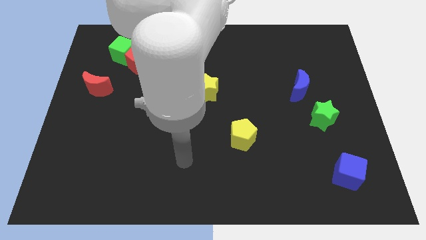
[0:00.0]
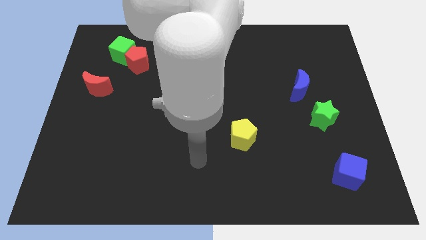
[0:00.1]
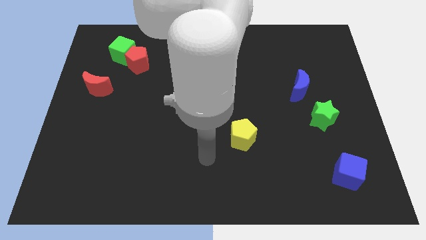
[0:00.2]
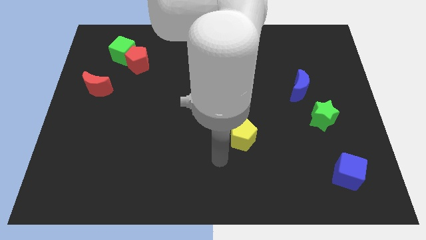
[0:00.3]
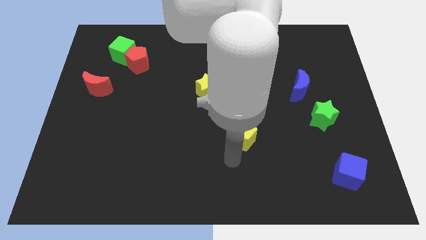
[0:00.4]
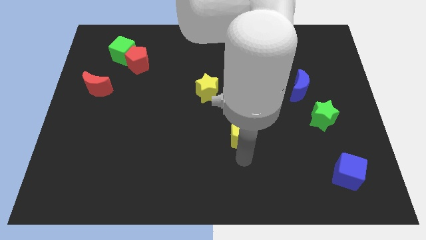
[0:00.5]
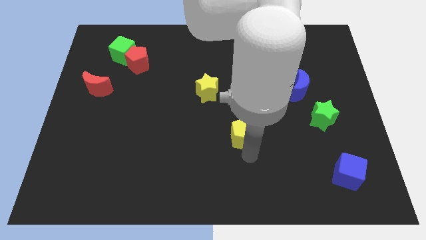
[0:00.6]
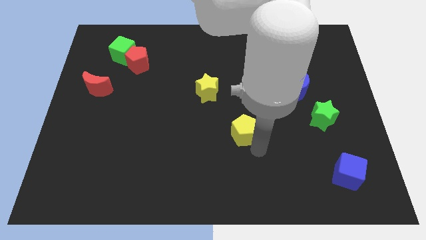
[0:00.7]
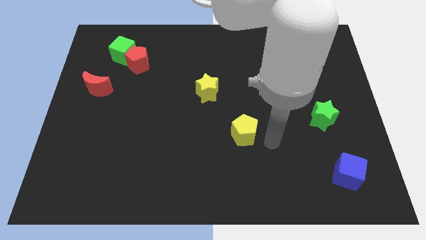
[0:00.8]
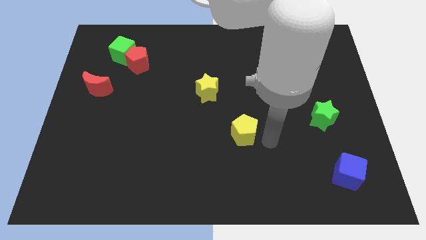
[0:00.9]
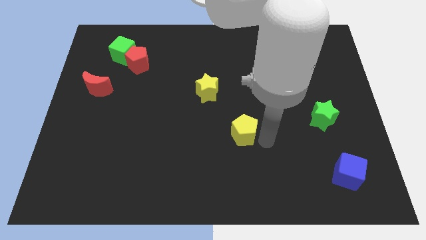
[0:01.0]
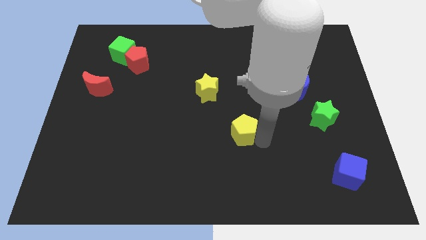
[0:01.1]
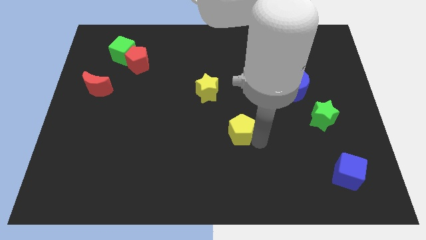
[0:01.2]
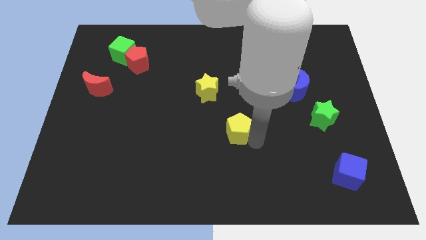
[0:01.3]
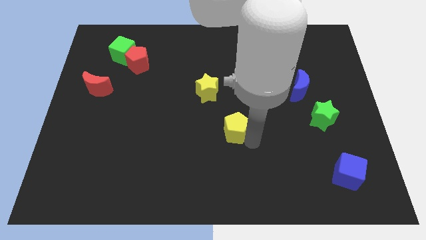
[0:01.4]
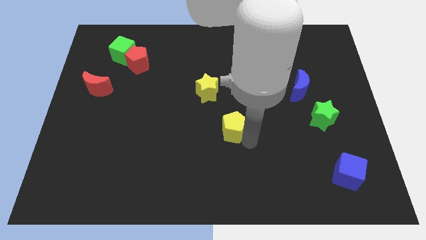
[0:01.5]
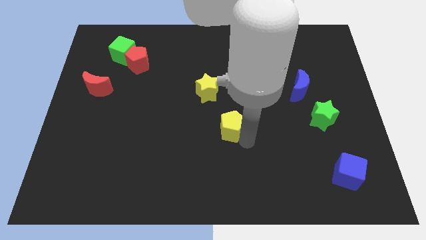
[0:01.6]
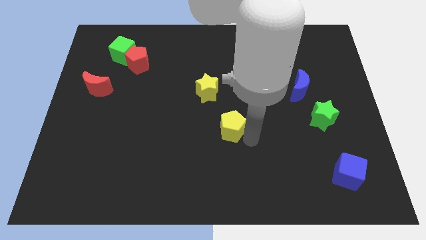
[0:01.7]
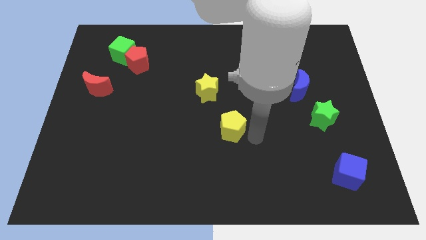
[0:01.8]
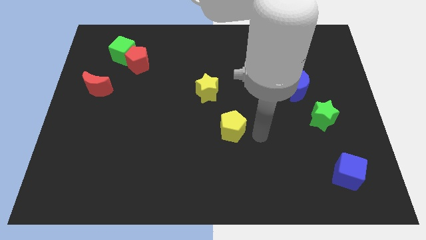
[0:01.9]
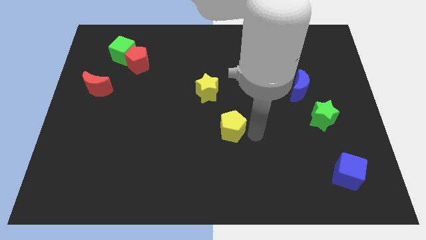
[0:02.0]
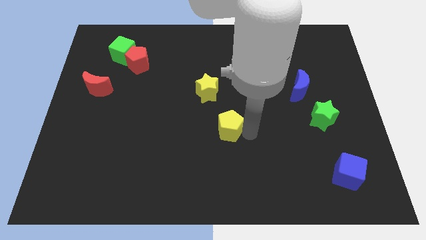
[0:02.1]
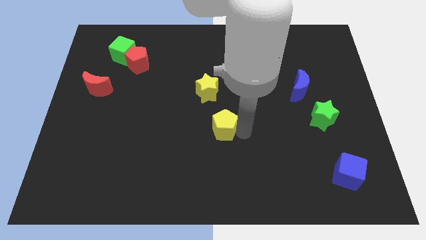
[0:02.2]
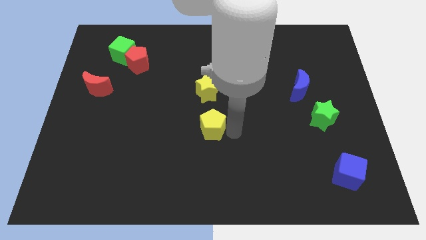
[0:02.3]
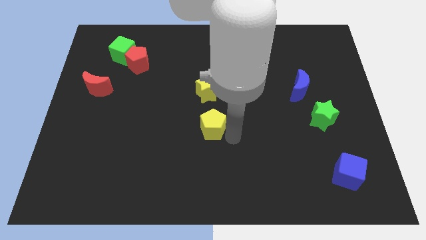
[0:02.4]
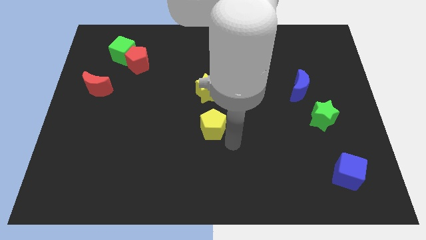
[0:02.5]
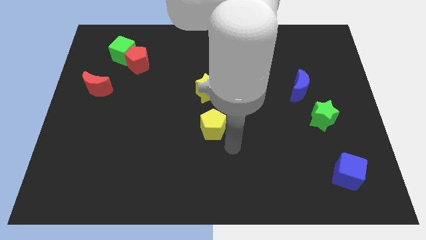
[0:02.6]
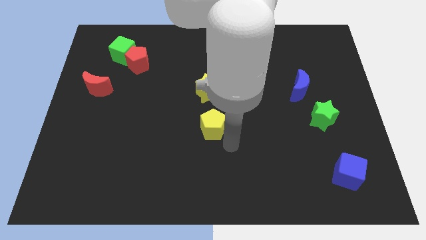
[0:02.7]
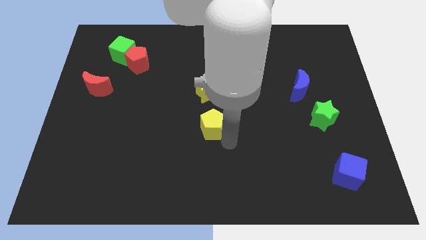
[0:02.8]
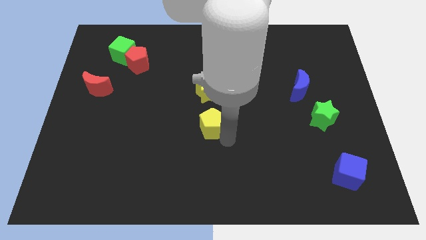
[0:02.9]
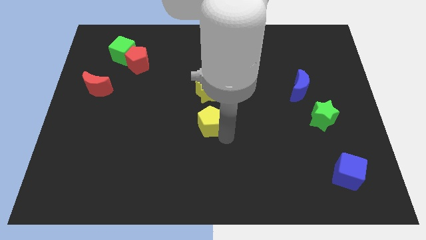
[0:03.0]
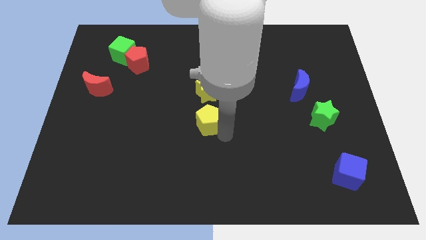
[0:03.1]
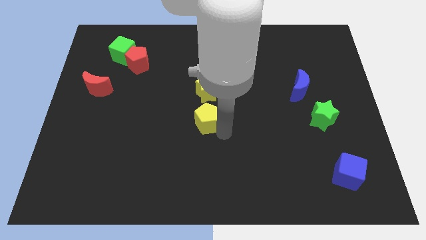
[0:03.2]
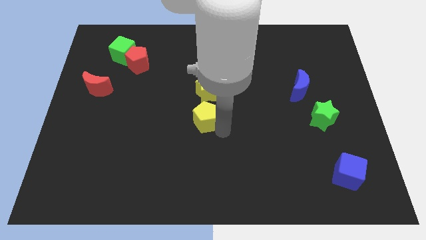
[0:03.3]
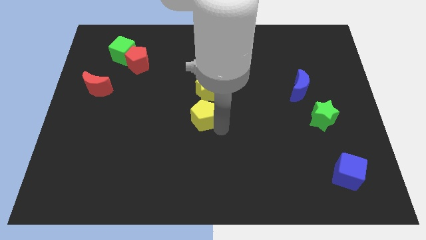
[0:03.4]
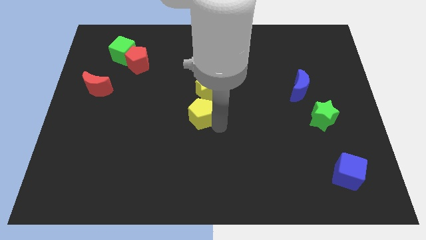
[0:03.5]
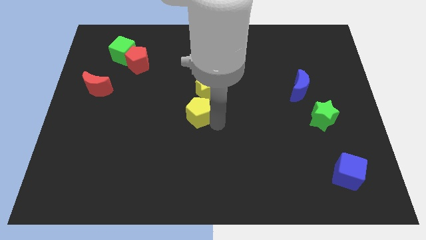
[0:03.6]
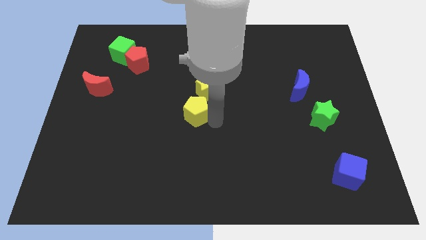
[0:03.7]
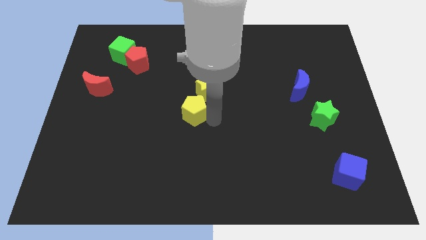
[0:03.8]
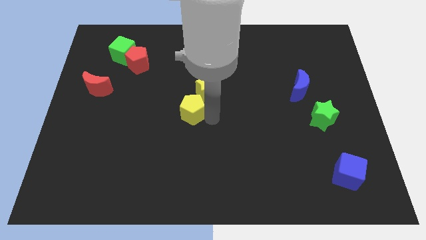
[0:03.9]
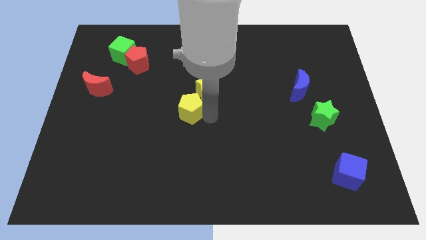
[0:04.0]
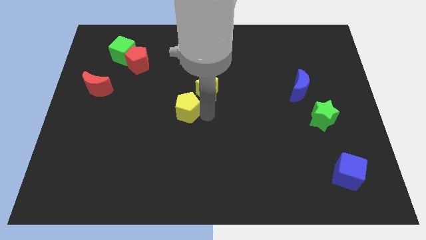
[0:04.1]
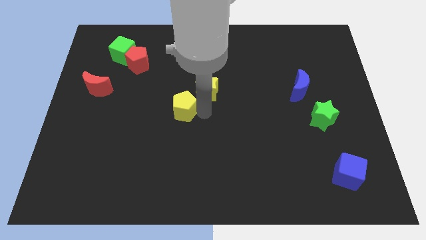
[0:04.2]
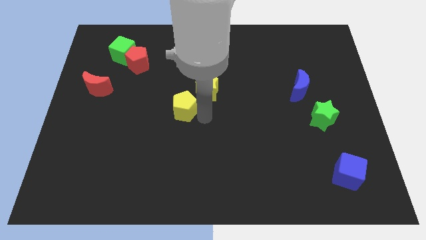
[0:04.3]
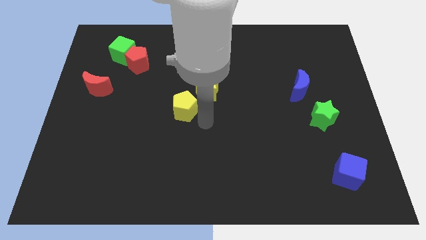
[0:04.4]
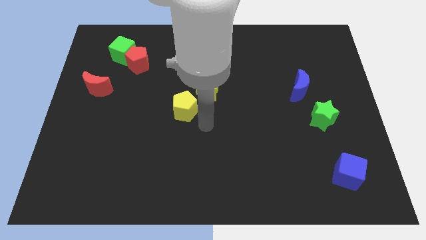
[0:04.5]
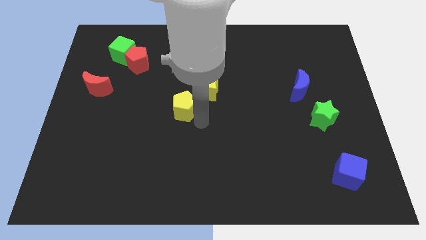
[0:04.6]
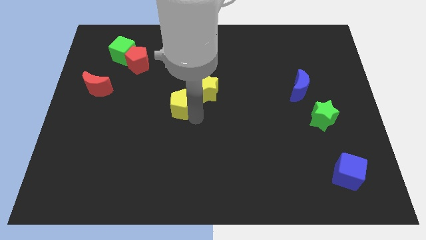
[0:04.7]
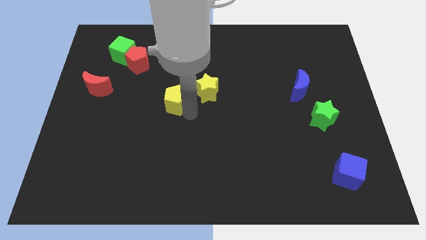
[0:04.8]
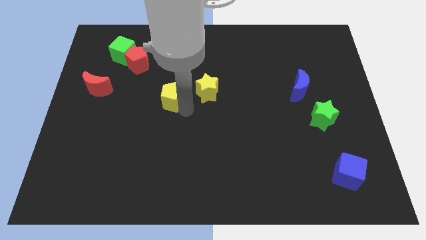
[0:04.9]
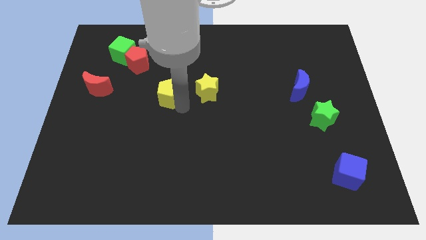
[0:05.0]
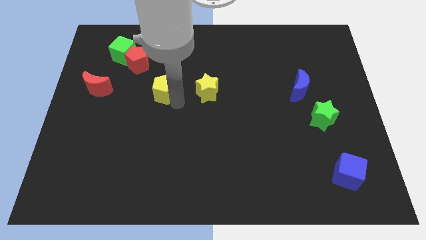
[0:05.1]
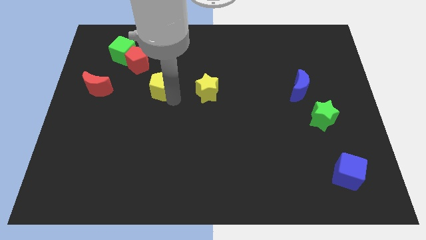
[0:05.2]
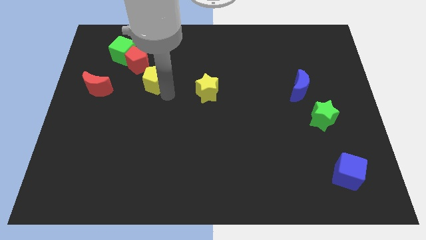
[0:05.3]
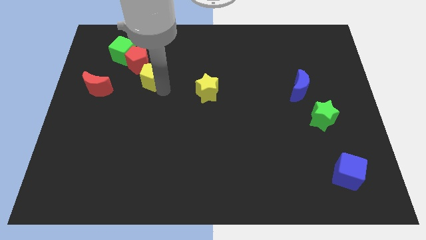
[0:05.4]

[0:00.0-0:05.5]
push the yellow pentagon to the bottom right of the green cube

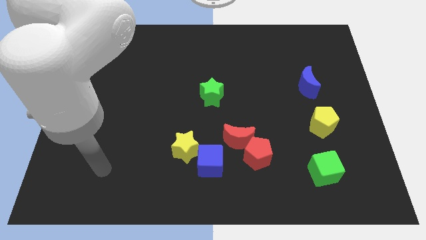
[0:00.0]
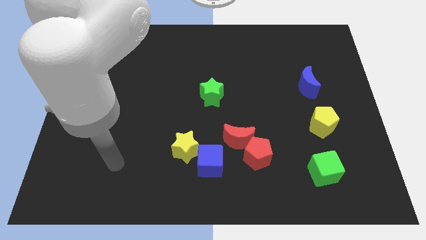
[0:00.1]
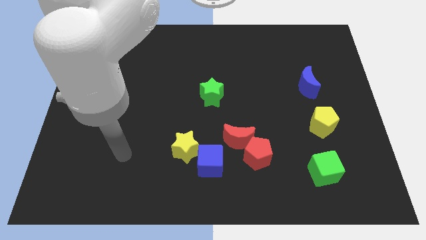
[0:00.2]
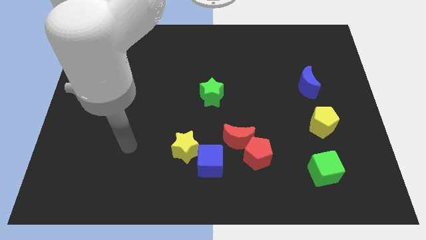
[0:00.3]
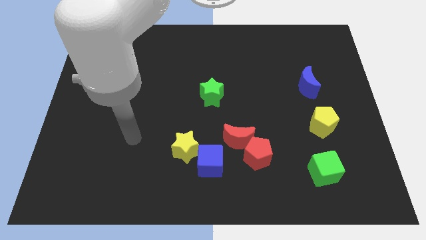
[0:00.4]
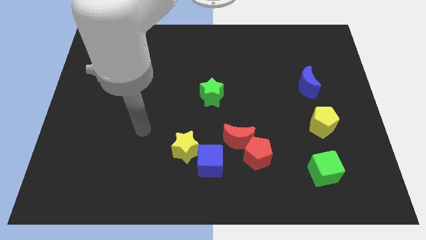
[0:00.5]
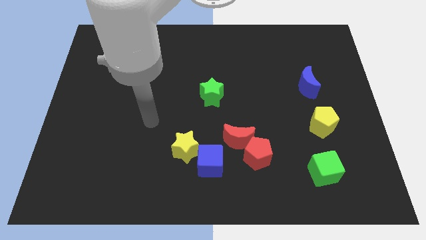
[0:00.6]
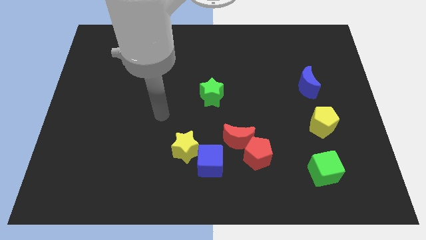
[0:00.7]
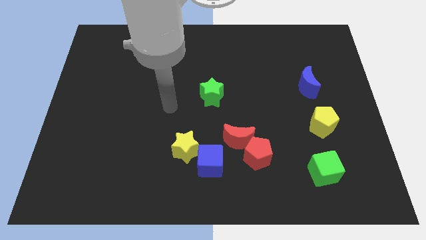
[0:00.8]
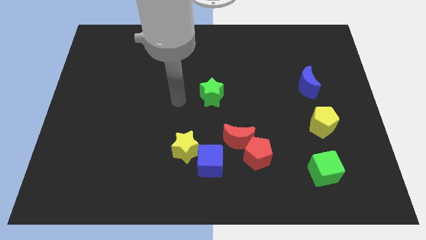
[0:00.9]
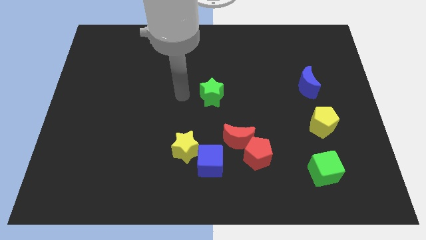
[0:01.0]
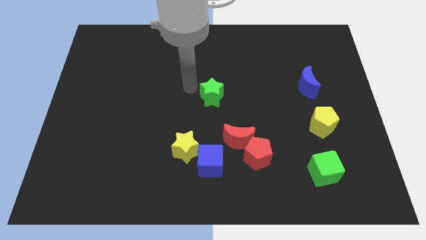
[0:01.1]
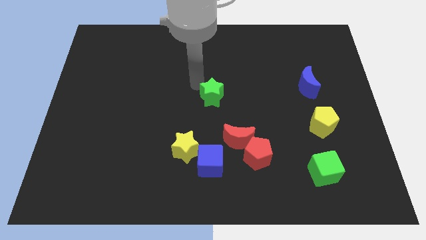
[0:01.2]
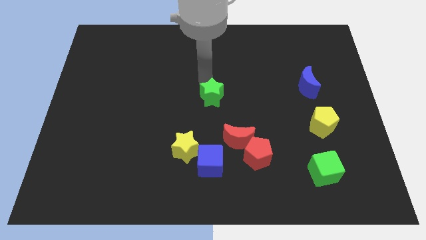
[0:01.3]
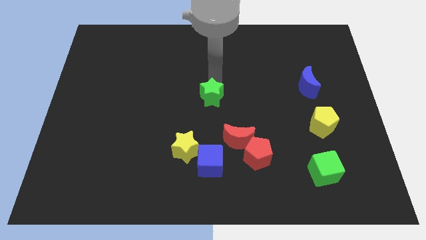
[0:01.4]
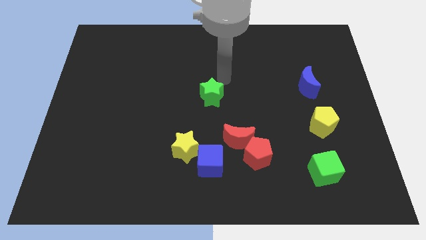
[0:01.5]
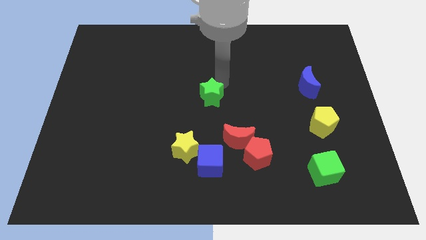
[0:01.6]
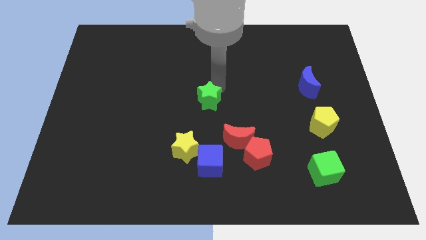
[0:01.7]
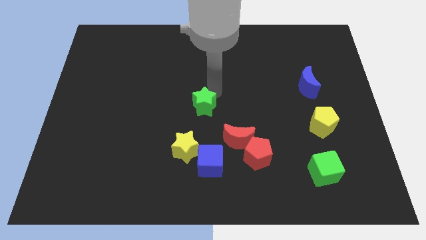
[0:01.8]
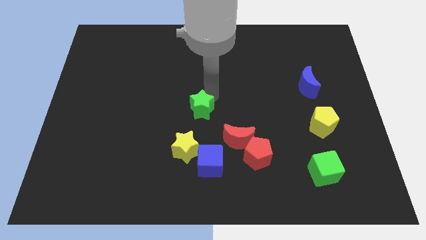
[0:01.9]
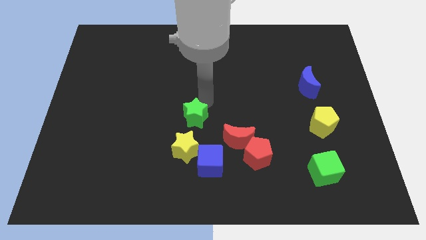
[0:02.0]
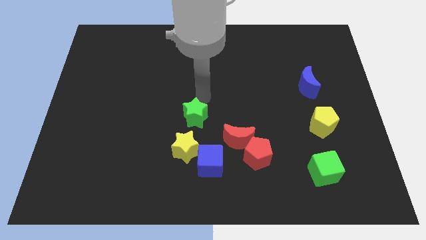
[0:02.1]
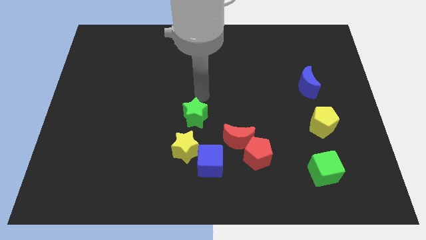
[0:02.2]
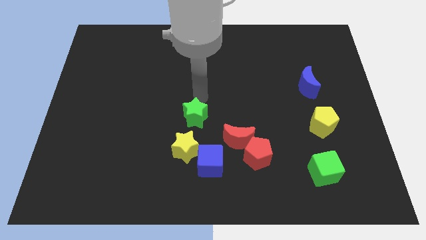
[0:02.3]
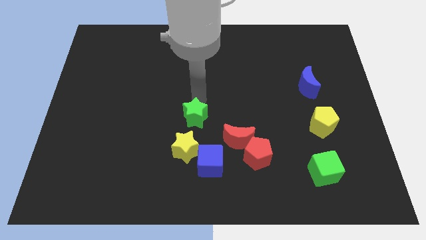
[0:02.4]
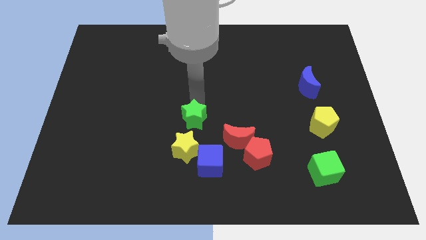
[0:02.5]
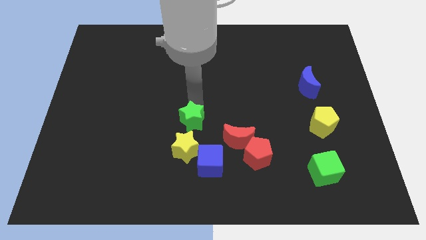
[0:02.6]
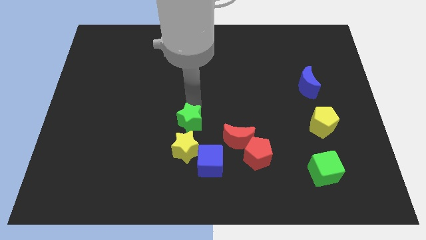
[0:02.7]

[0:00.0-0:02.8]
push the green star to the top left of the blue cube
